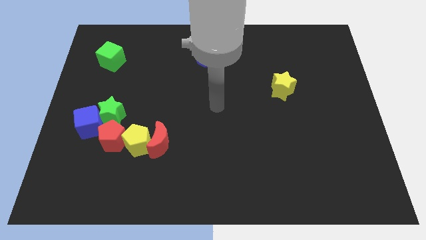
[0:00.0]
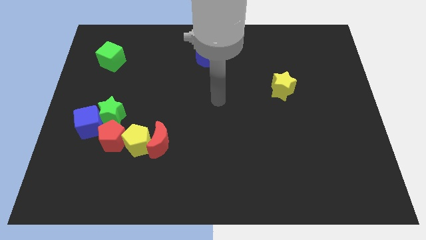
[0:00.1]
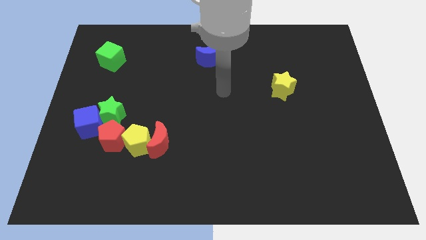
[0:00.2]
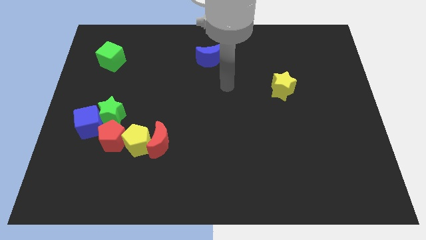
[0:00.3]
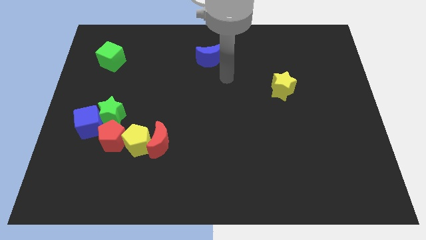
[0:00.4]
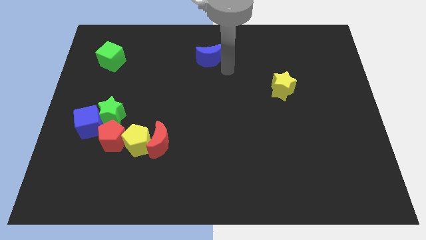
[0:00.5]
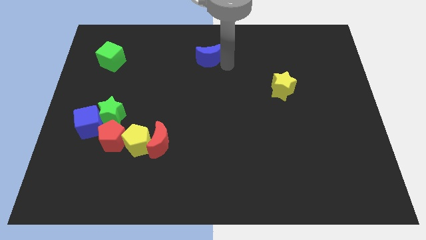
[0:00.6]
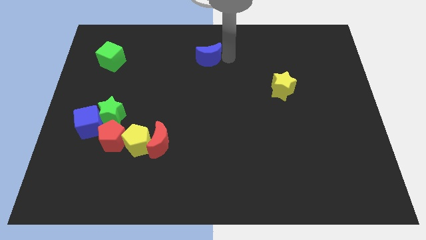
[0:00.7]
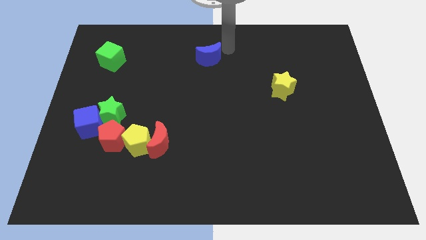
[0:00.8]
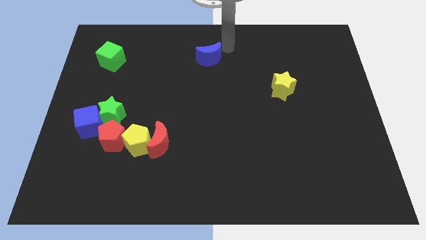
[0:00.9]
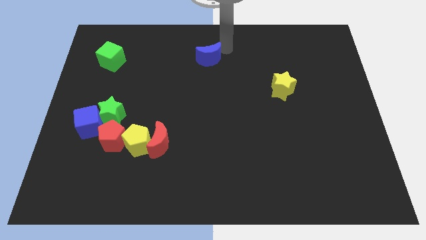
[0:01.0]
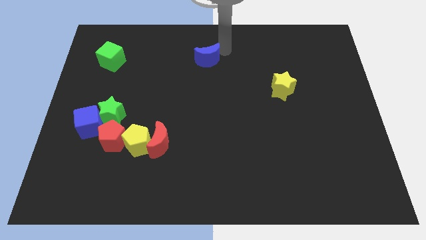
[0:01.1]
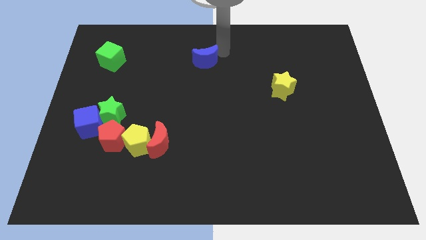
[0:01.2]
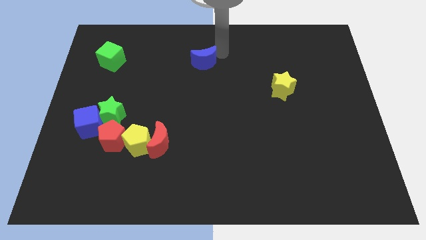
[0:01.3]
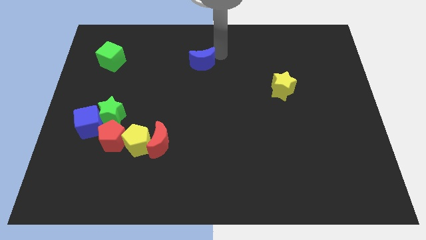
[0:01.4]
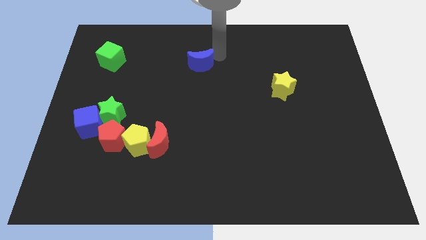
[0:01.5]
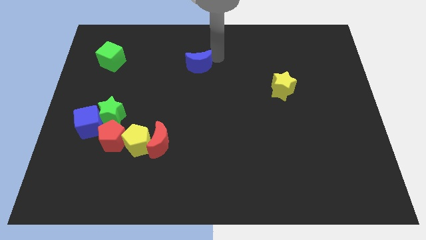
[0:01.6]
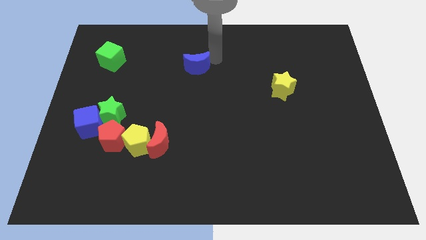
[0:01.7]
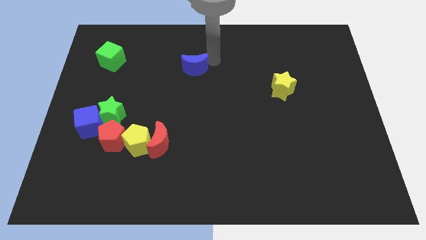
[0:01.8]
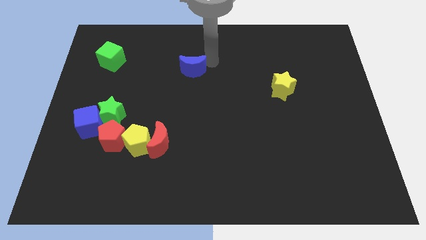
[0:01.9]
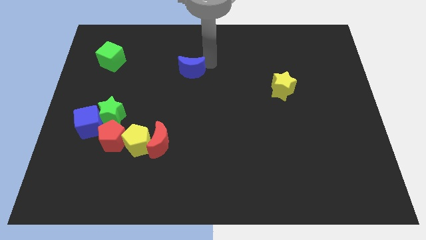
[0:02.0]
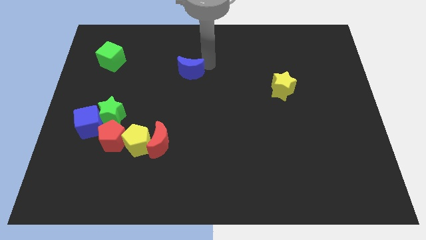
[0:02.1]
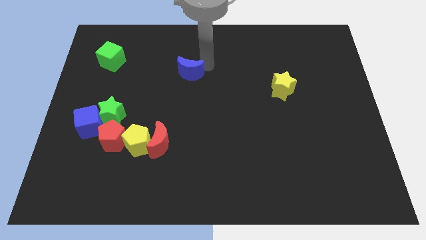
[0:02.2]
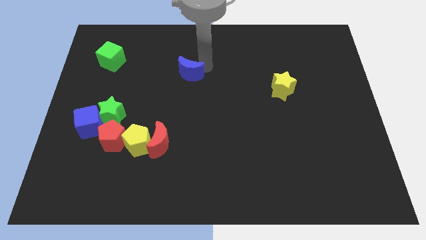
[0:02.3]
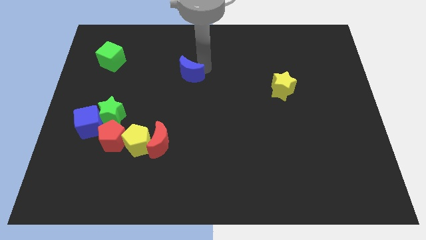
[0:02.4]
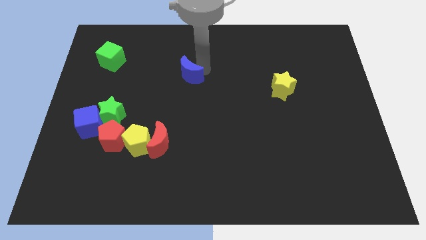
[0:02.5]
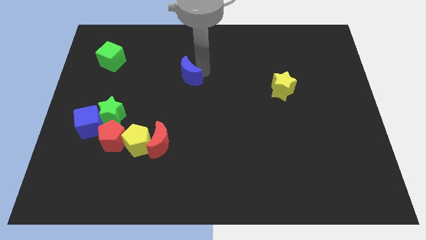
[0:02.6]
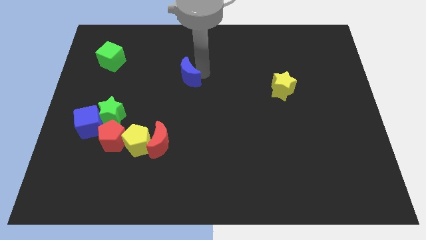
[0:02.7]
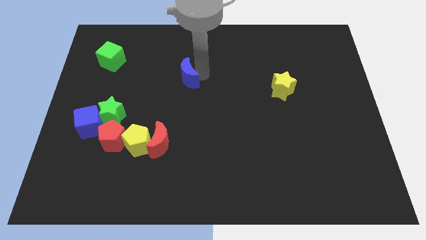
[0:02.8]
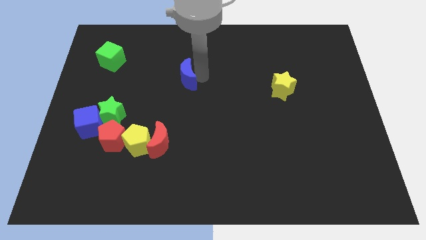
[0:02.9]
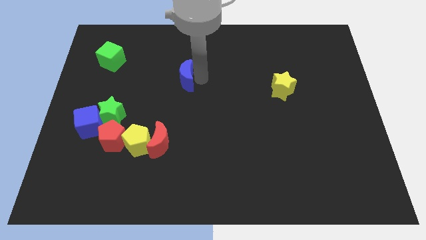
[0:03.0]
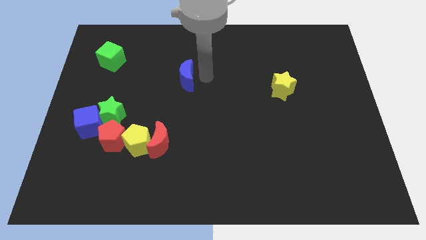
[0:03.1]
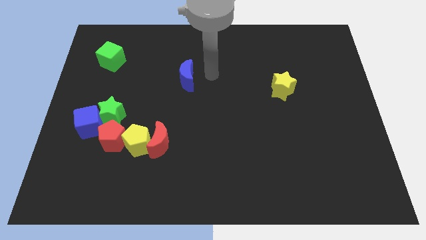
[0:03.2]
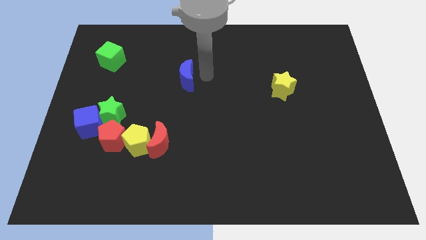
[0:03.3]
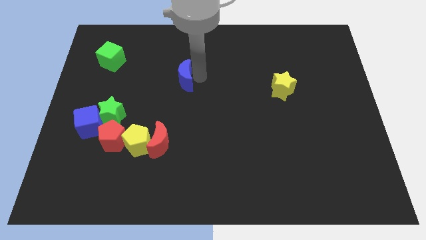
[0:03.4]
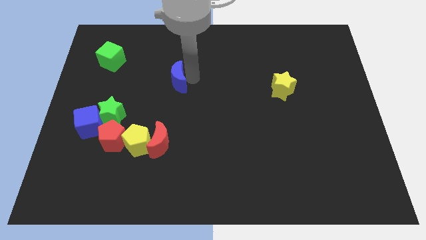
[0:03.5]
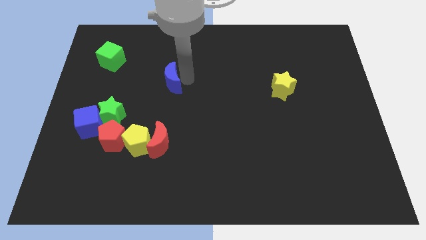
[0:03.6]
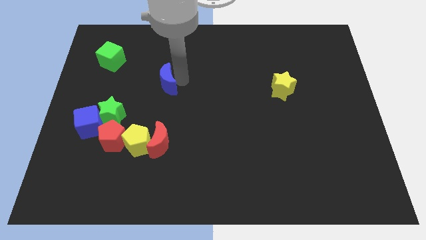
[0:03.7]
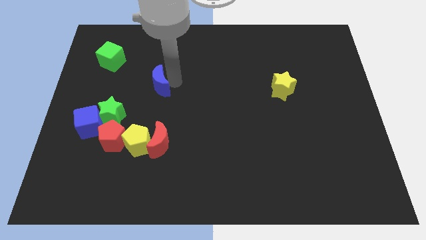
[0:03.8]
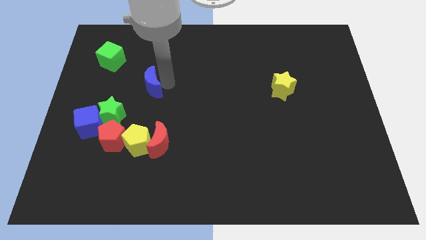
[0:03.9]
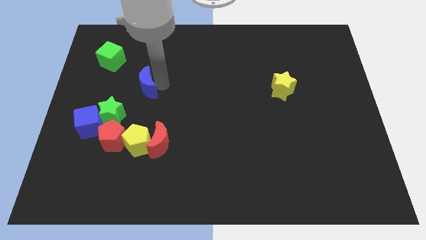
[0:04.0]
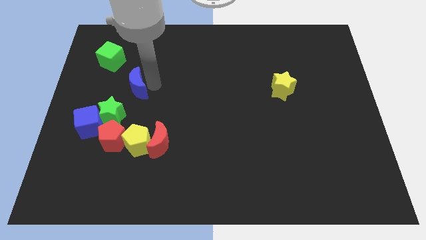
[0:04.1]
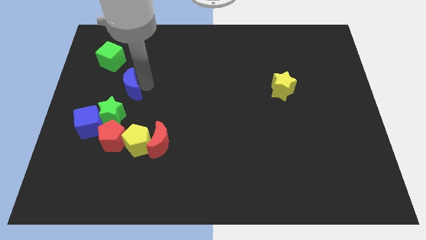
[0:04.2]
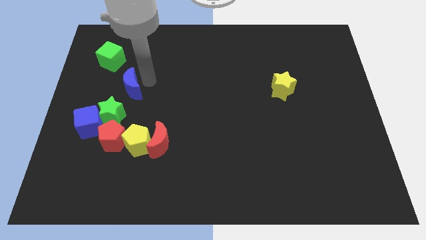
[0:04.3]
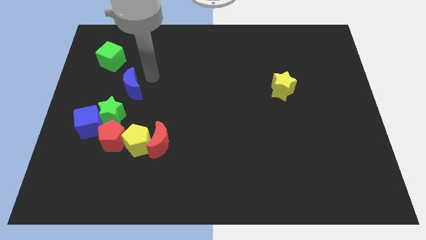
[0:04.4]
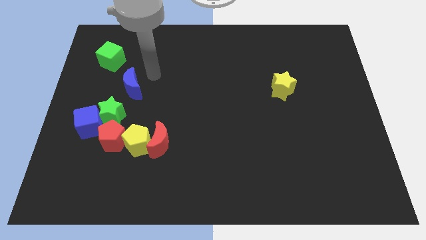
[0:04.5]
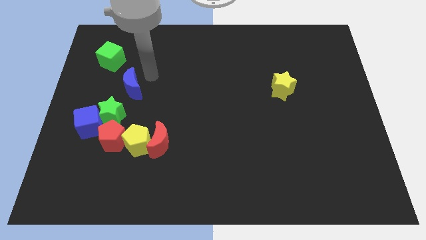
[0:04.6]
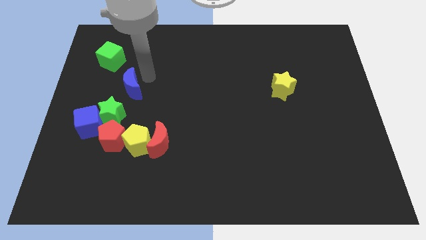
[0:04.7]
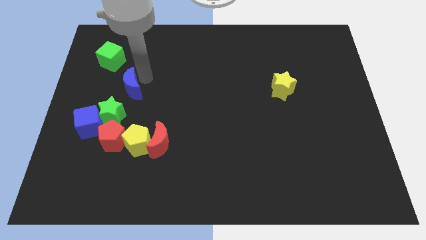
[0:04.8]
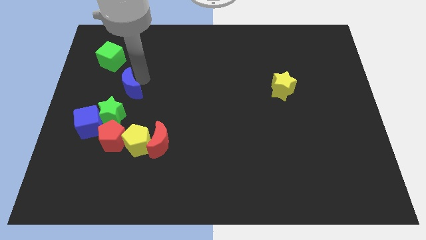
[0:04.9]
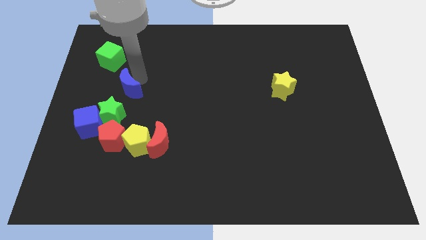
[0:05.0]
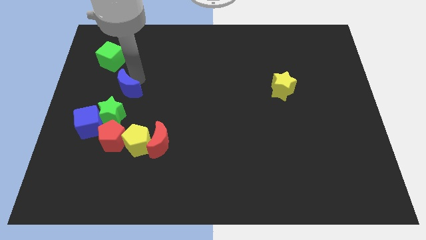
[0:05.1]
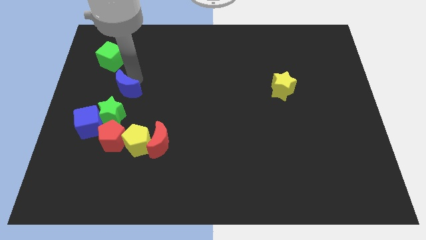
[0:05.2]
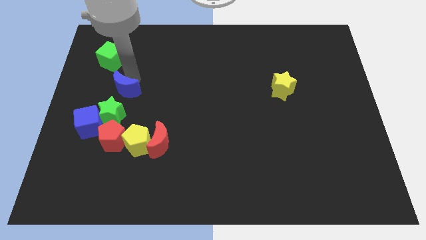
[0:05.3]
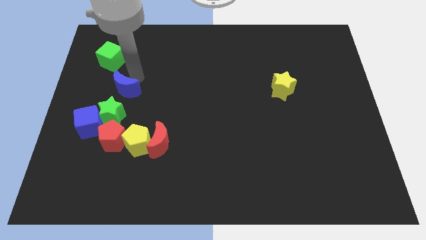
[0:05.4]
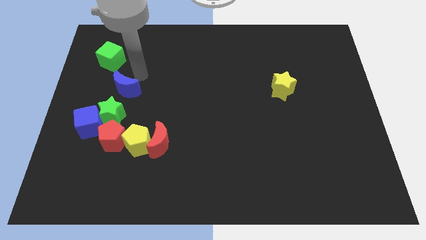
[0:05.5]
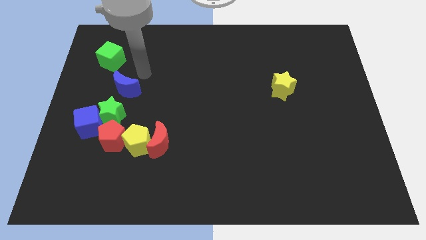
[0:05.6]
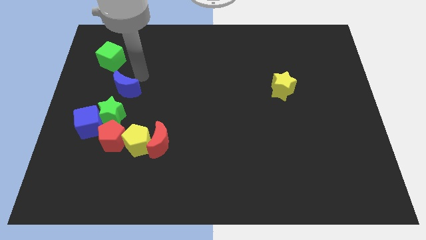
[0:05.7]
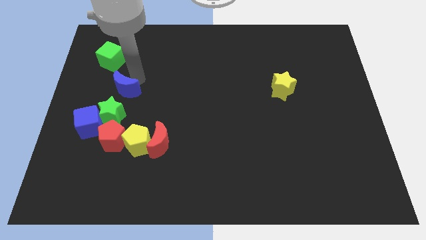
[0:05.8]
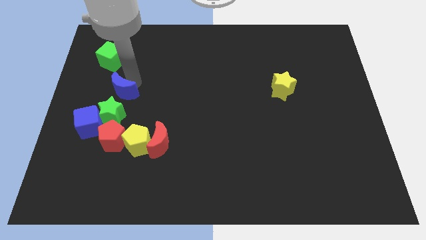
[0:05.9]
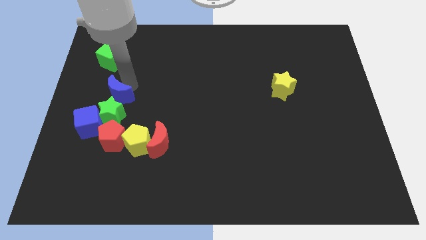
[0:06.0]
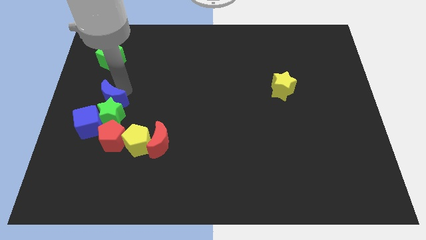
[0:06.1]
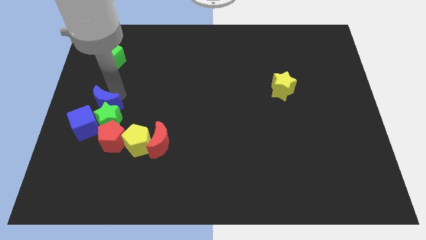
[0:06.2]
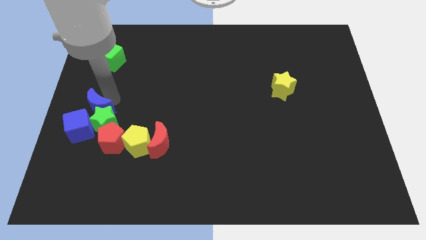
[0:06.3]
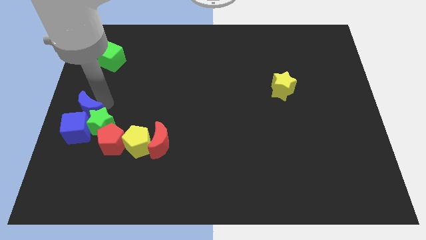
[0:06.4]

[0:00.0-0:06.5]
put the blue moon next to the blue cube

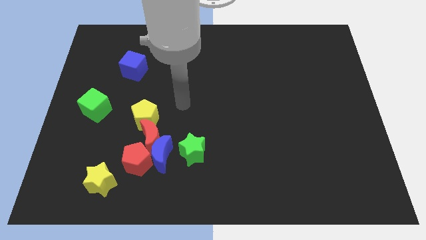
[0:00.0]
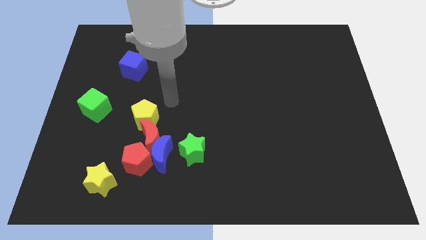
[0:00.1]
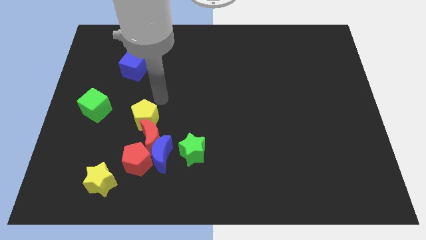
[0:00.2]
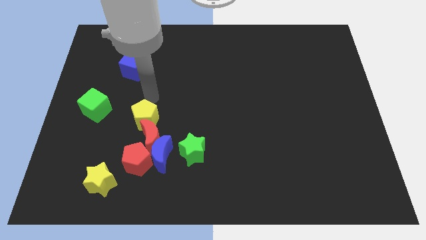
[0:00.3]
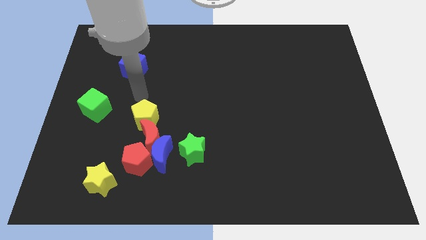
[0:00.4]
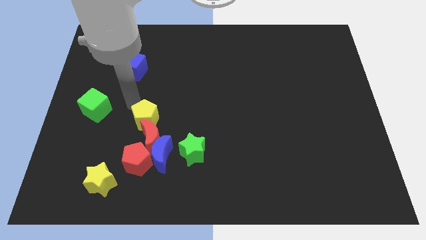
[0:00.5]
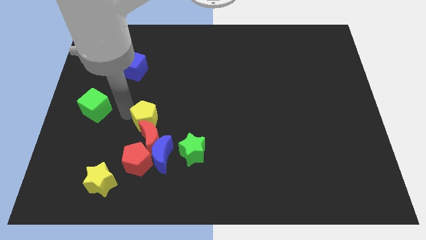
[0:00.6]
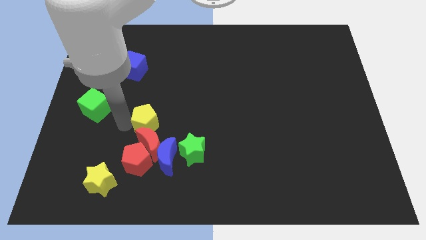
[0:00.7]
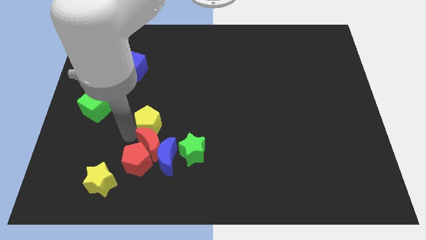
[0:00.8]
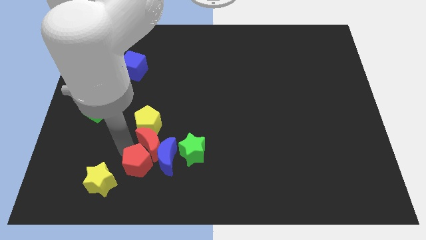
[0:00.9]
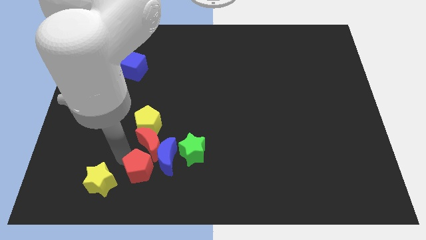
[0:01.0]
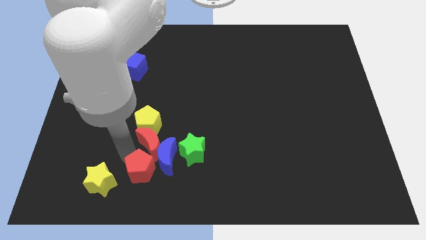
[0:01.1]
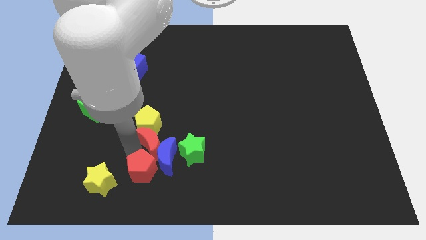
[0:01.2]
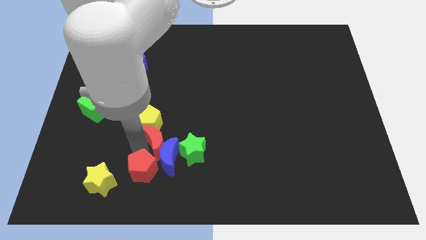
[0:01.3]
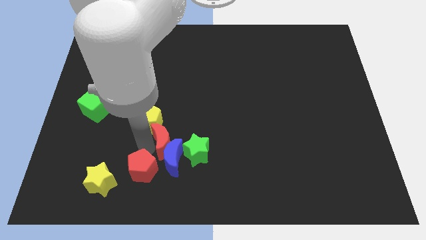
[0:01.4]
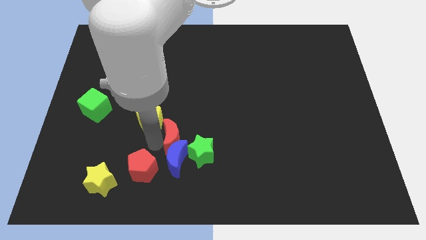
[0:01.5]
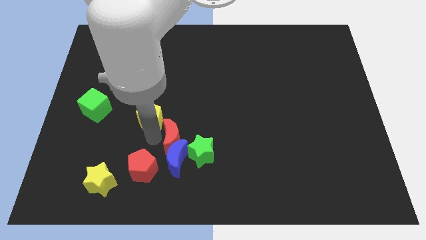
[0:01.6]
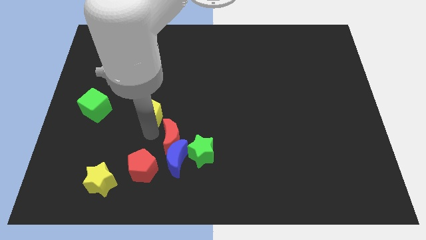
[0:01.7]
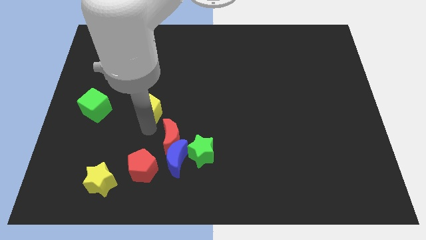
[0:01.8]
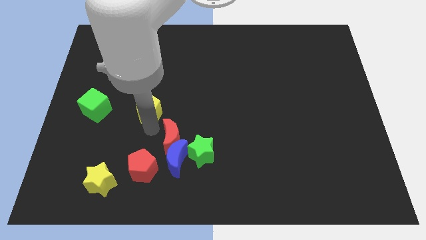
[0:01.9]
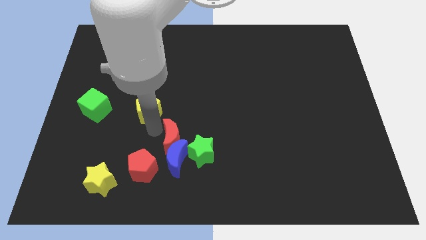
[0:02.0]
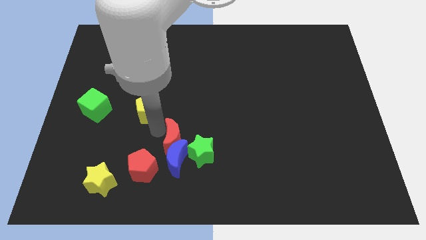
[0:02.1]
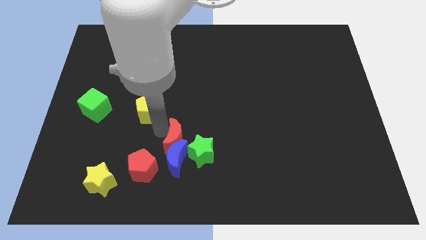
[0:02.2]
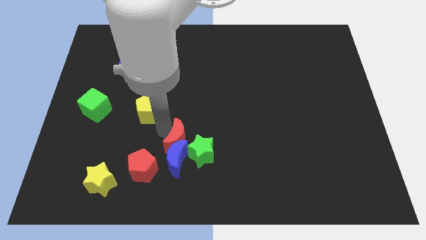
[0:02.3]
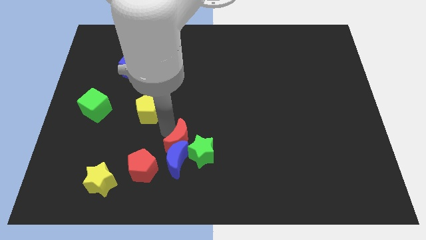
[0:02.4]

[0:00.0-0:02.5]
put the red moon close to the green star
